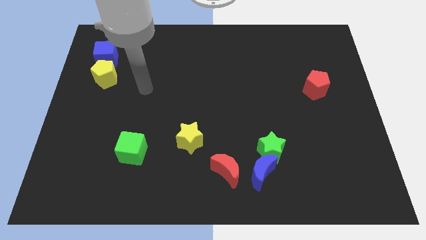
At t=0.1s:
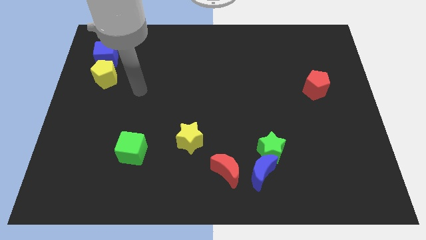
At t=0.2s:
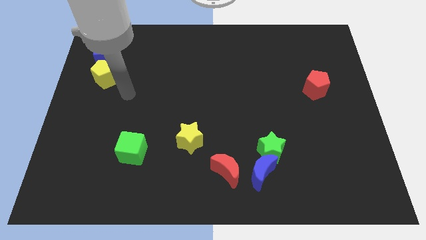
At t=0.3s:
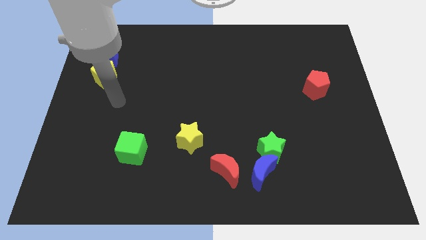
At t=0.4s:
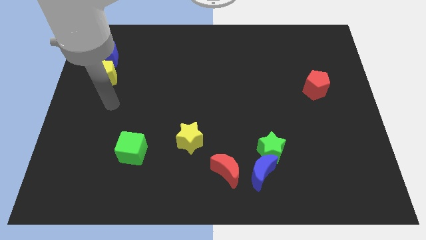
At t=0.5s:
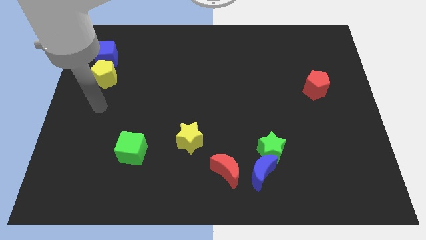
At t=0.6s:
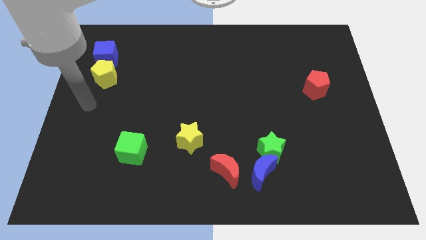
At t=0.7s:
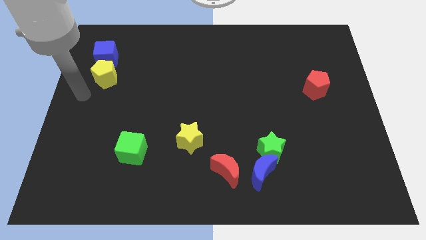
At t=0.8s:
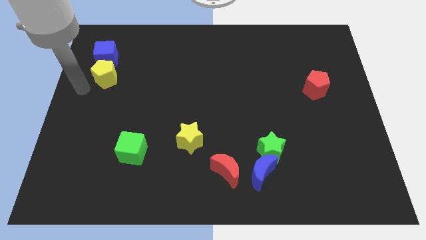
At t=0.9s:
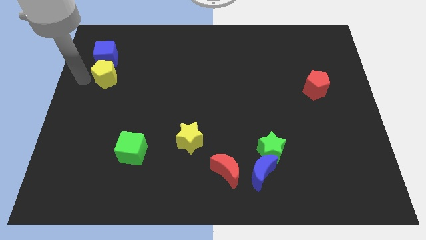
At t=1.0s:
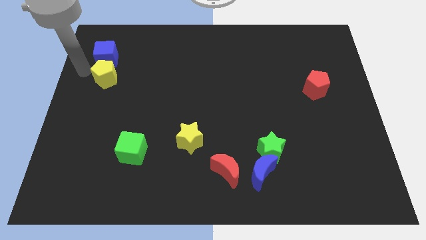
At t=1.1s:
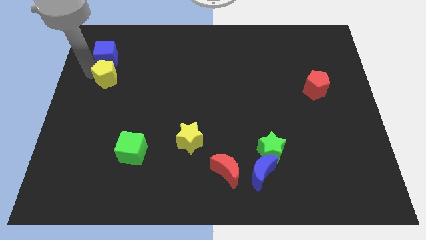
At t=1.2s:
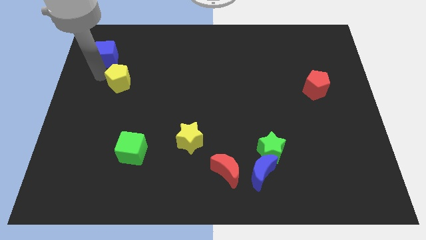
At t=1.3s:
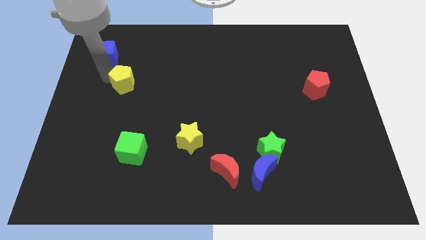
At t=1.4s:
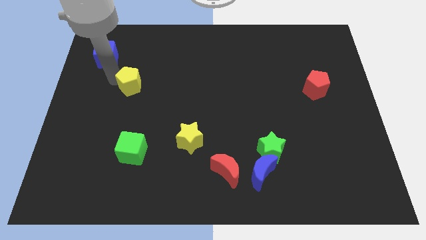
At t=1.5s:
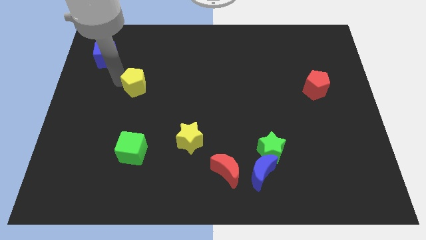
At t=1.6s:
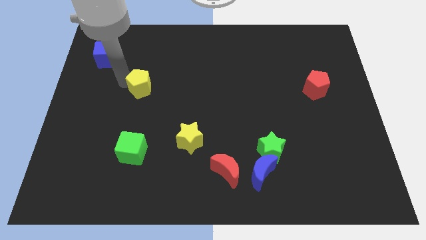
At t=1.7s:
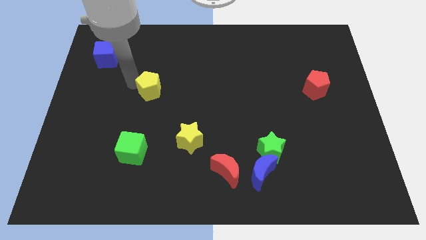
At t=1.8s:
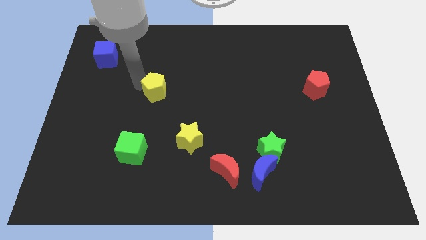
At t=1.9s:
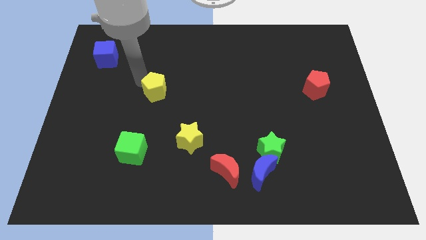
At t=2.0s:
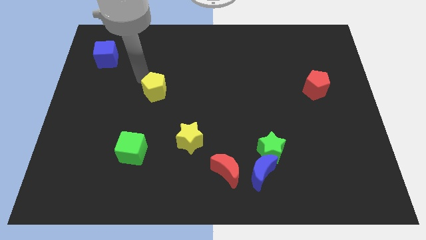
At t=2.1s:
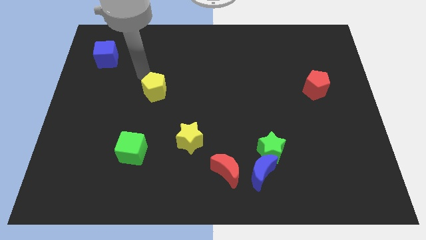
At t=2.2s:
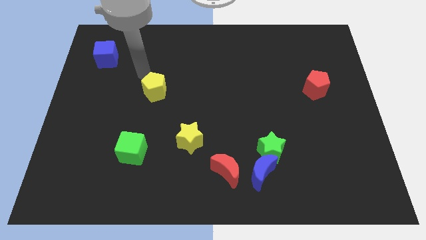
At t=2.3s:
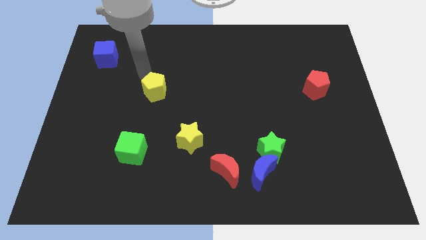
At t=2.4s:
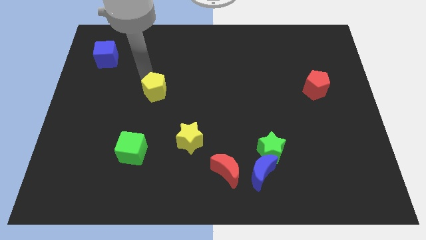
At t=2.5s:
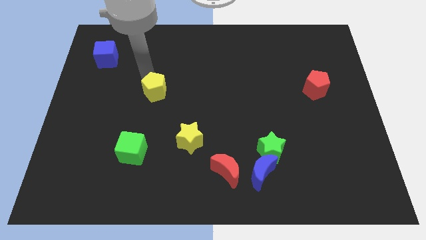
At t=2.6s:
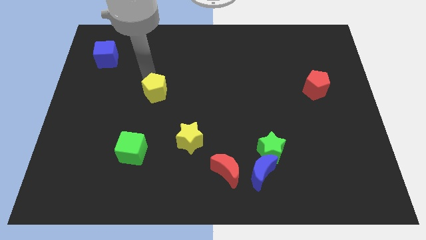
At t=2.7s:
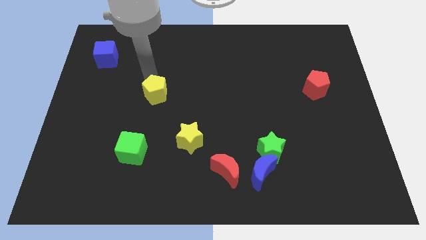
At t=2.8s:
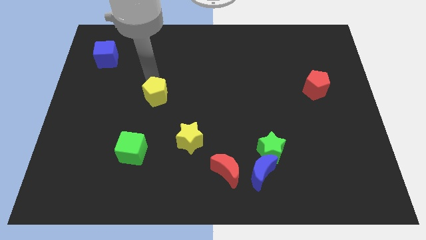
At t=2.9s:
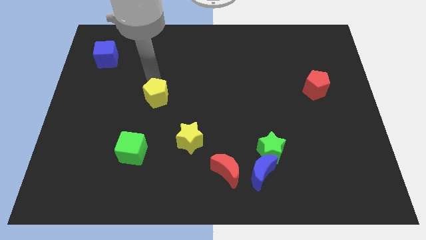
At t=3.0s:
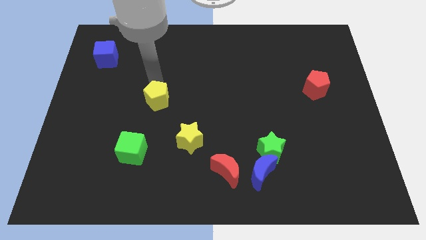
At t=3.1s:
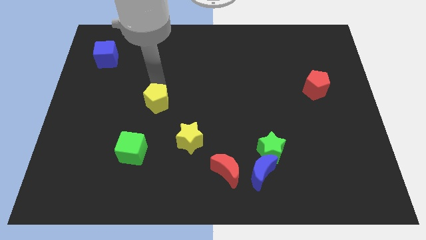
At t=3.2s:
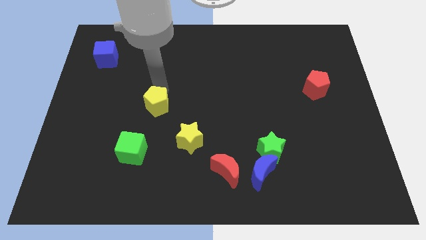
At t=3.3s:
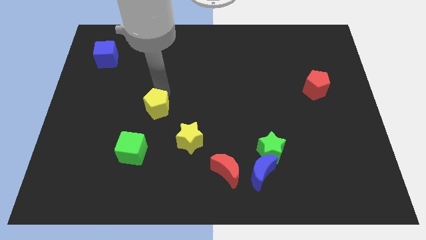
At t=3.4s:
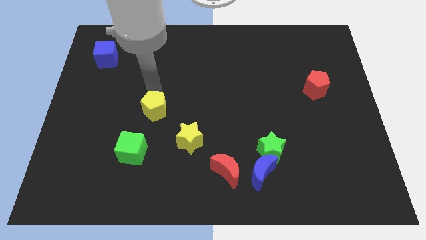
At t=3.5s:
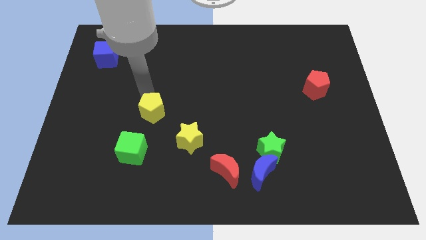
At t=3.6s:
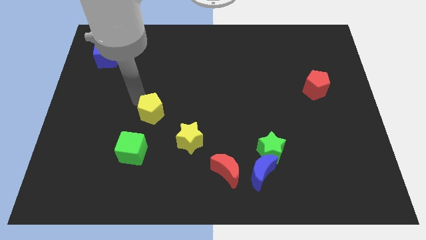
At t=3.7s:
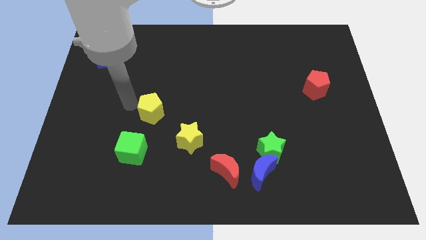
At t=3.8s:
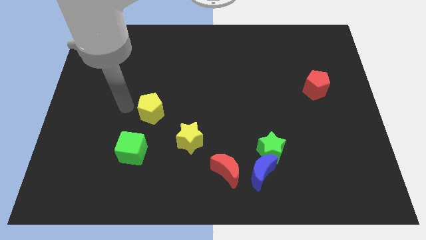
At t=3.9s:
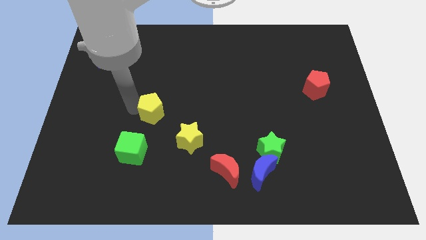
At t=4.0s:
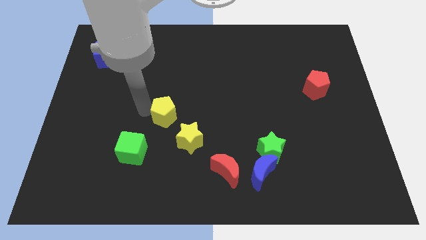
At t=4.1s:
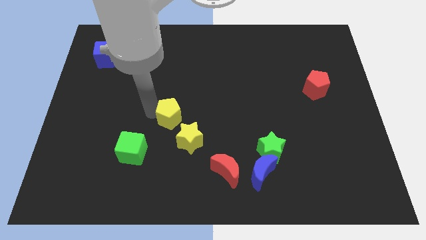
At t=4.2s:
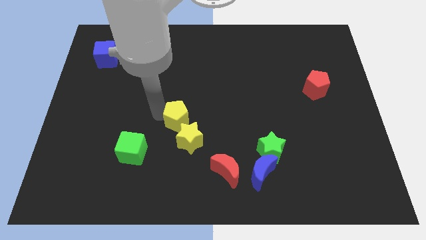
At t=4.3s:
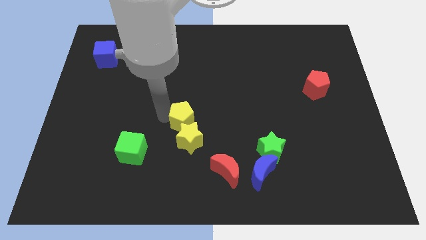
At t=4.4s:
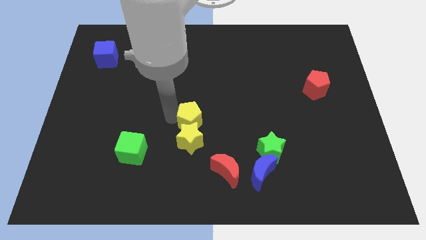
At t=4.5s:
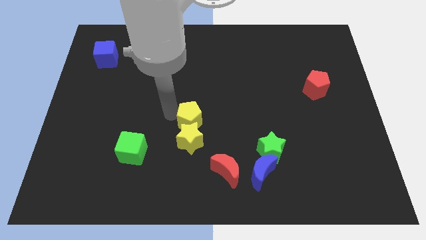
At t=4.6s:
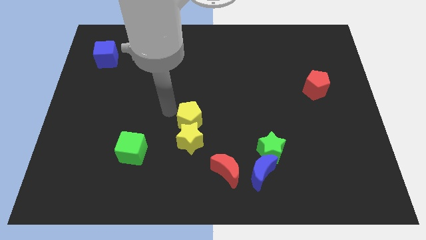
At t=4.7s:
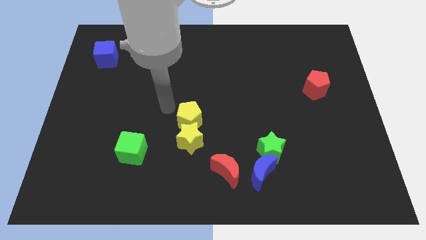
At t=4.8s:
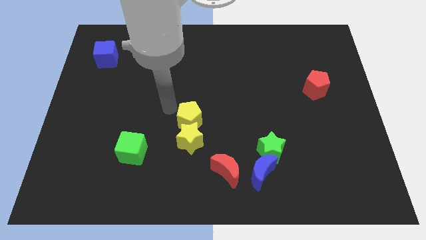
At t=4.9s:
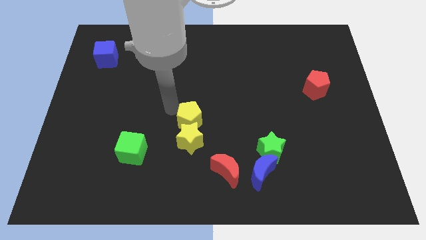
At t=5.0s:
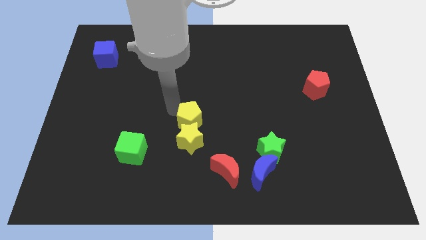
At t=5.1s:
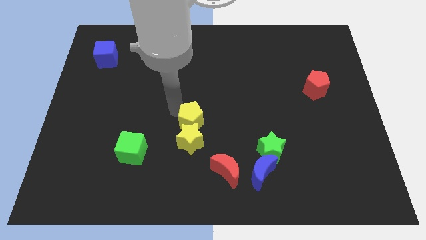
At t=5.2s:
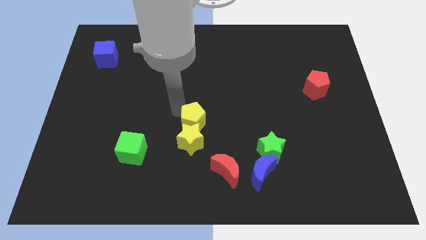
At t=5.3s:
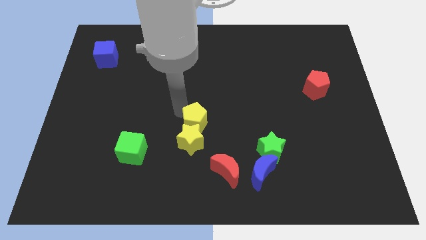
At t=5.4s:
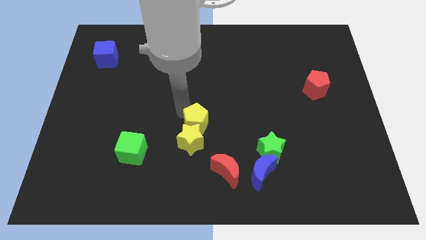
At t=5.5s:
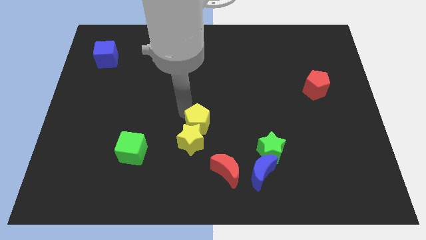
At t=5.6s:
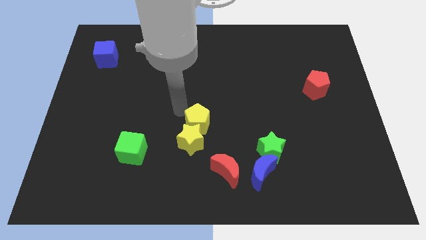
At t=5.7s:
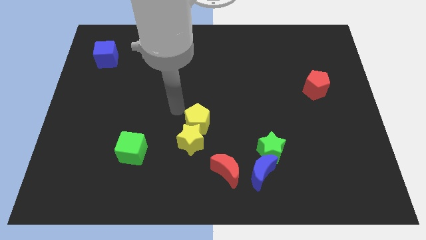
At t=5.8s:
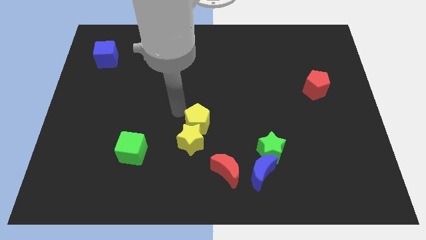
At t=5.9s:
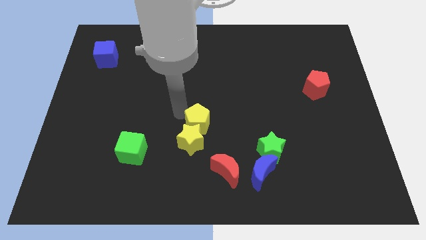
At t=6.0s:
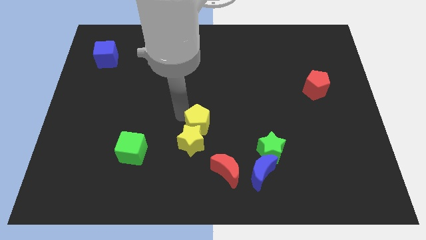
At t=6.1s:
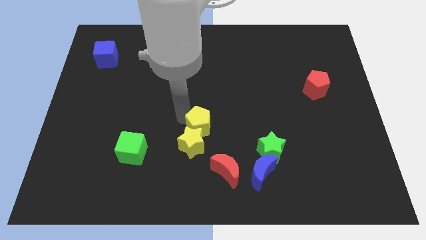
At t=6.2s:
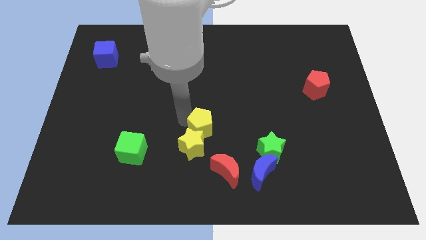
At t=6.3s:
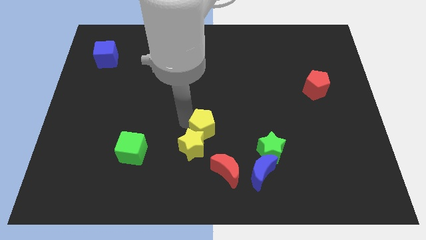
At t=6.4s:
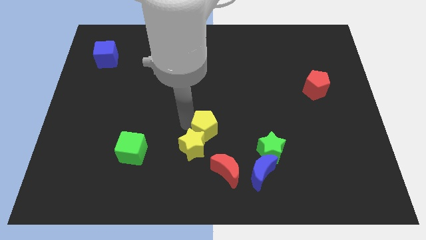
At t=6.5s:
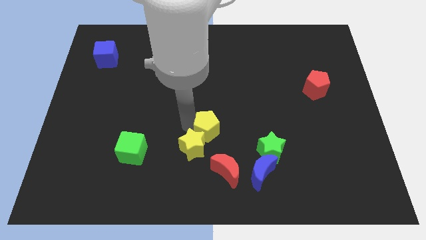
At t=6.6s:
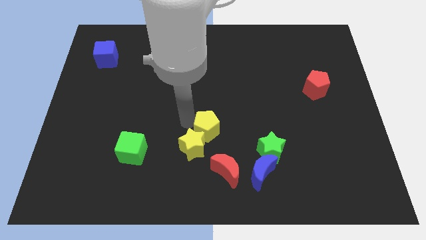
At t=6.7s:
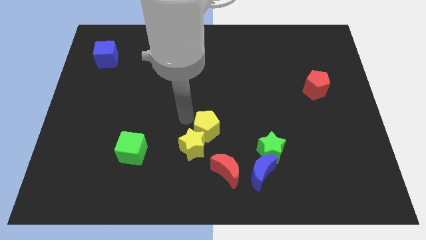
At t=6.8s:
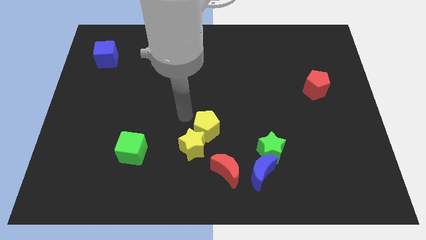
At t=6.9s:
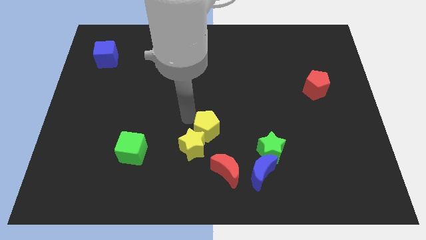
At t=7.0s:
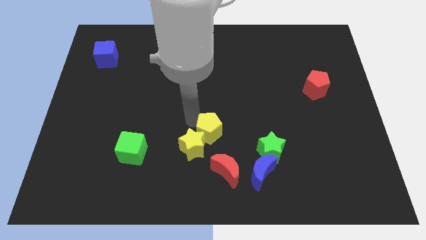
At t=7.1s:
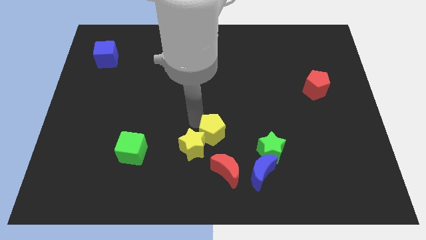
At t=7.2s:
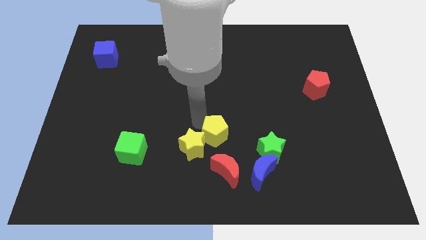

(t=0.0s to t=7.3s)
push the yellow pentagon just left of the green star
